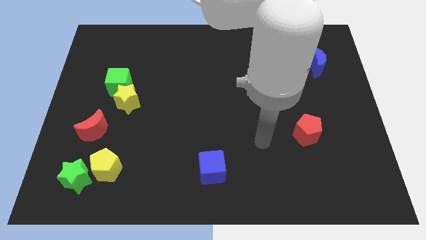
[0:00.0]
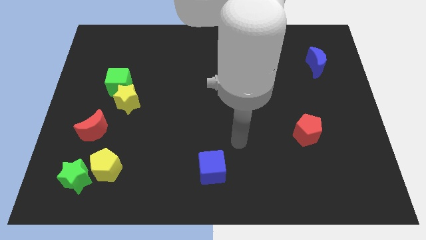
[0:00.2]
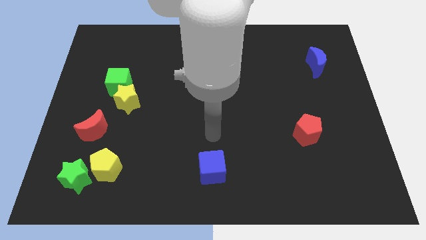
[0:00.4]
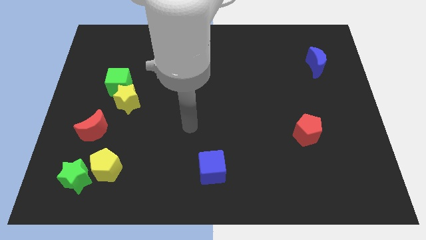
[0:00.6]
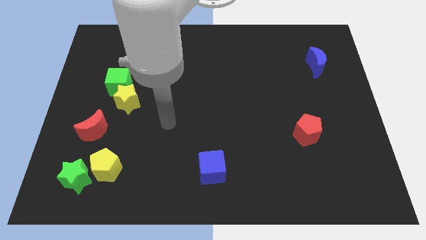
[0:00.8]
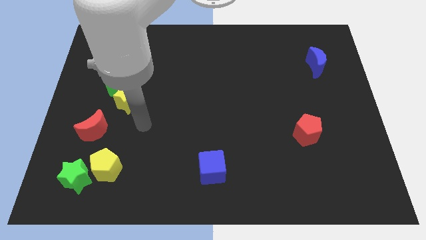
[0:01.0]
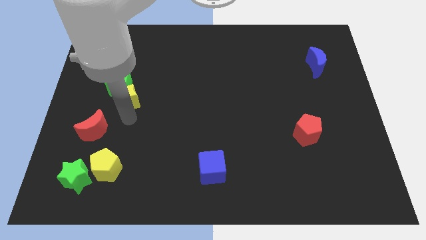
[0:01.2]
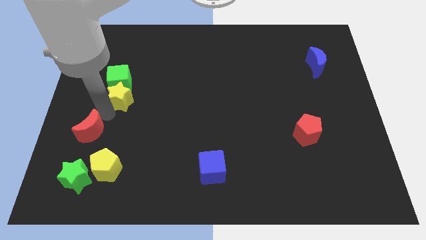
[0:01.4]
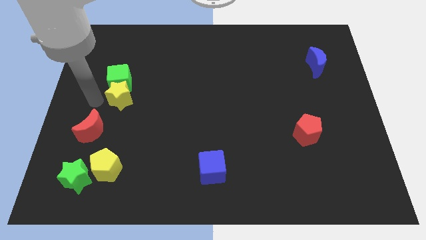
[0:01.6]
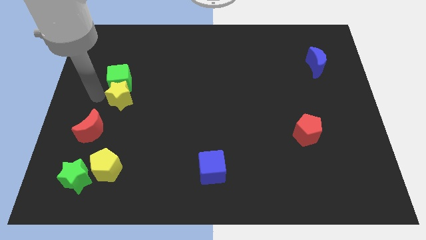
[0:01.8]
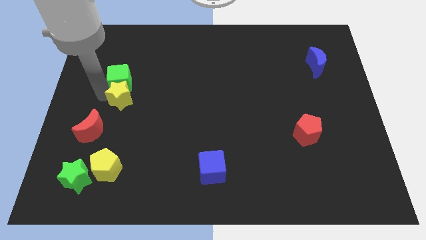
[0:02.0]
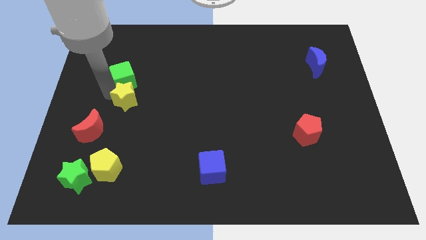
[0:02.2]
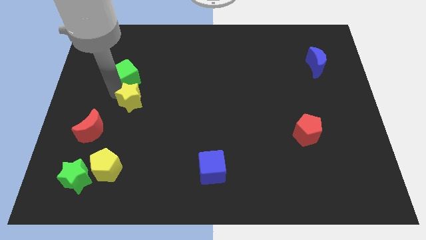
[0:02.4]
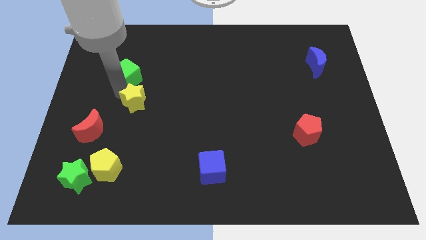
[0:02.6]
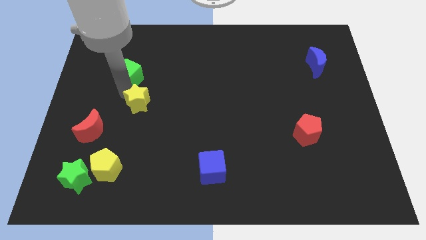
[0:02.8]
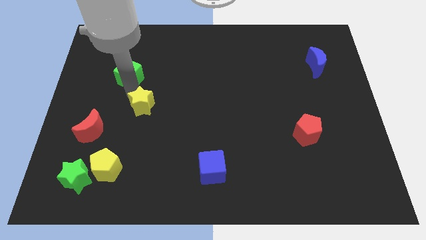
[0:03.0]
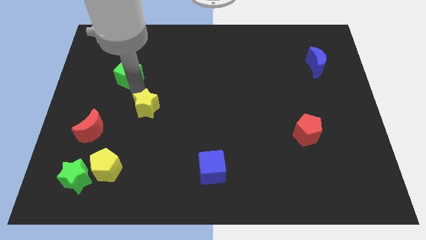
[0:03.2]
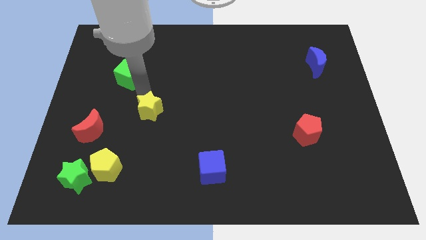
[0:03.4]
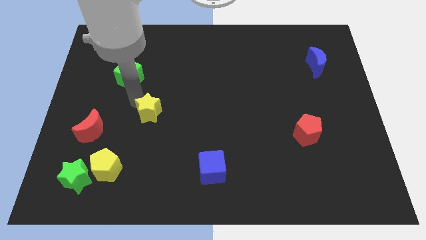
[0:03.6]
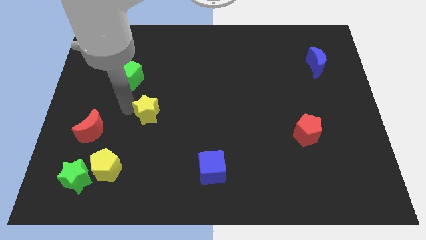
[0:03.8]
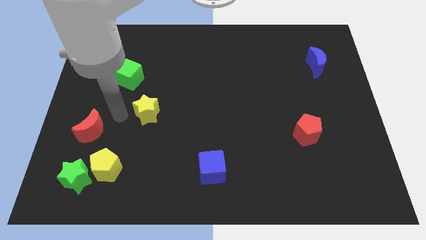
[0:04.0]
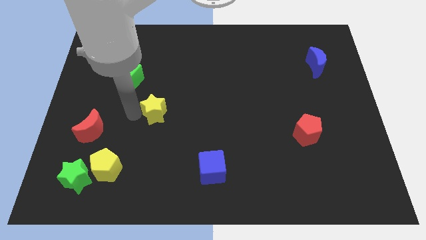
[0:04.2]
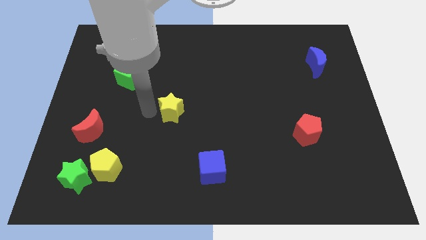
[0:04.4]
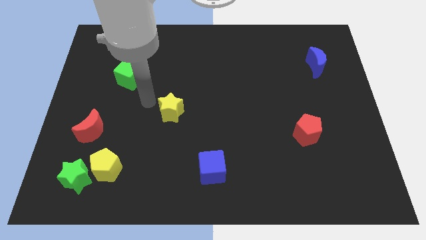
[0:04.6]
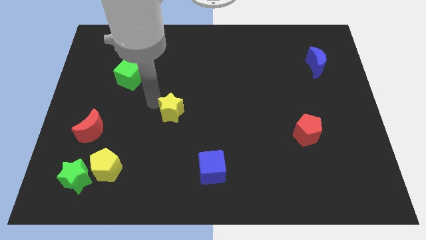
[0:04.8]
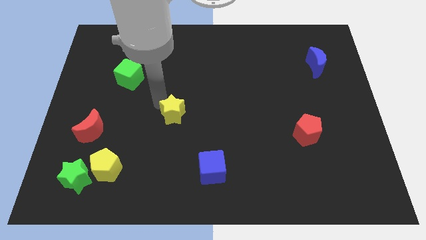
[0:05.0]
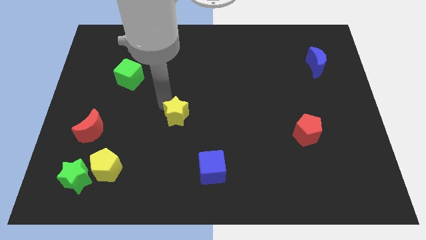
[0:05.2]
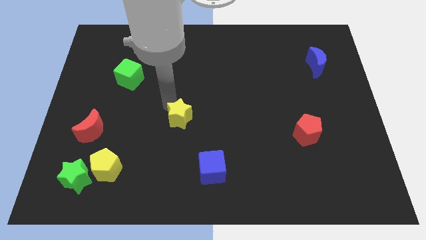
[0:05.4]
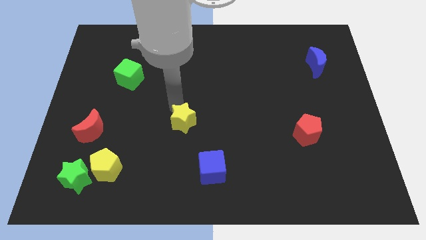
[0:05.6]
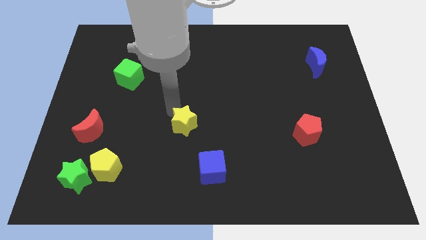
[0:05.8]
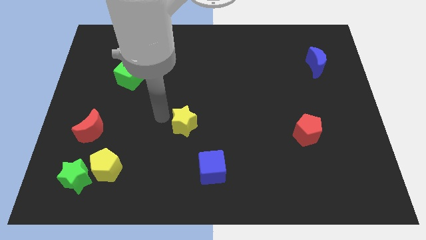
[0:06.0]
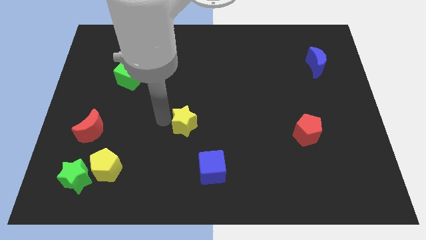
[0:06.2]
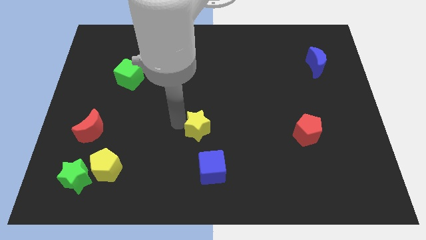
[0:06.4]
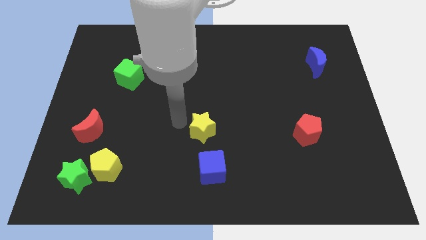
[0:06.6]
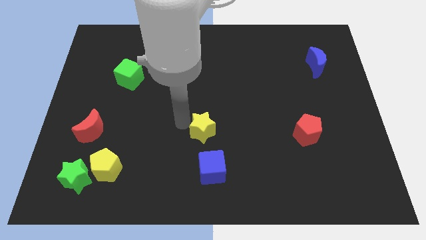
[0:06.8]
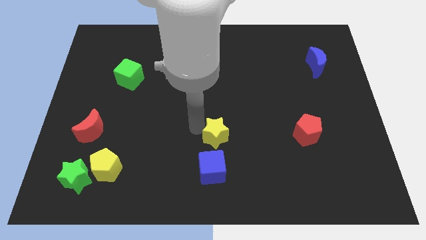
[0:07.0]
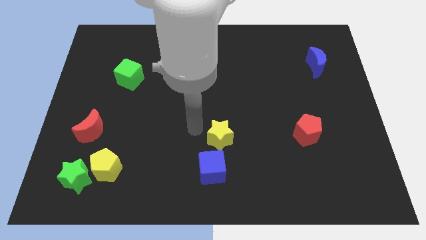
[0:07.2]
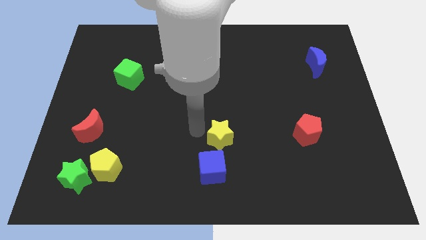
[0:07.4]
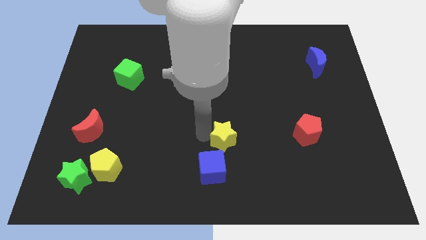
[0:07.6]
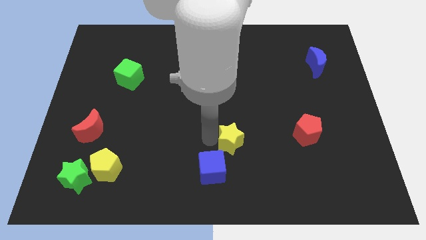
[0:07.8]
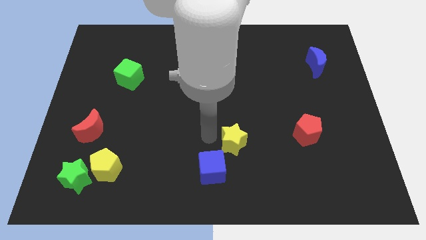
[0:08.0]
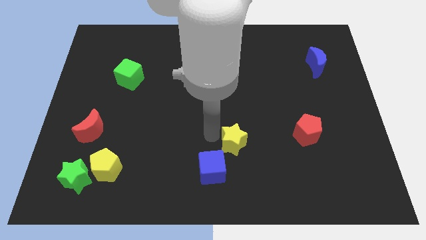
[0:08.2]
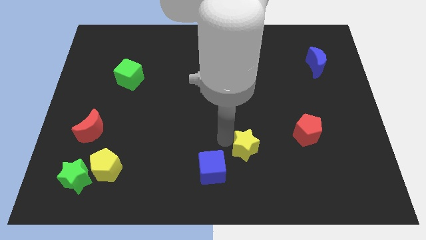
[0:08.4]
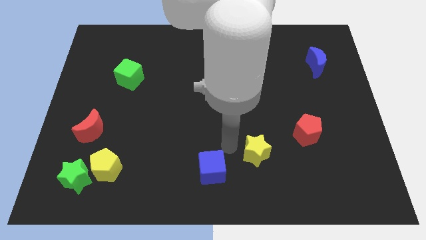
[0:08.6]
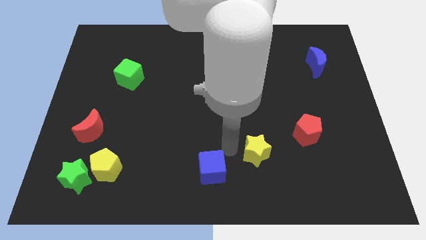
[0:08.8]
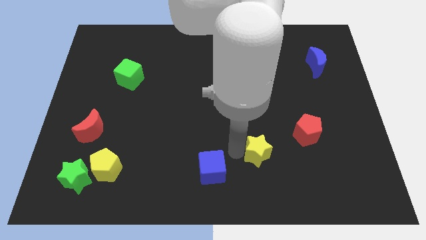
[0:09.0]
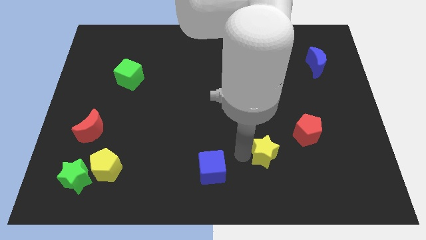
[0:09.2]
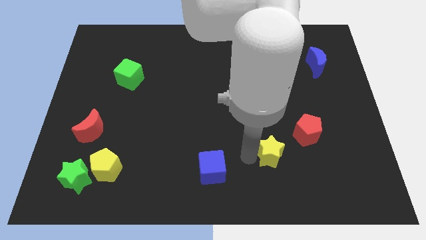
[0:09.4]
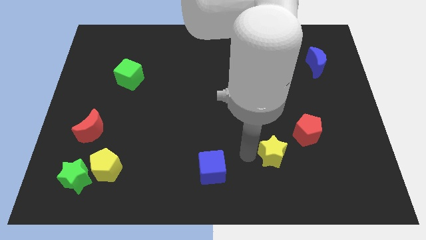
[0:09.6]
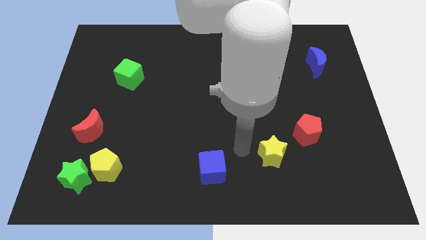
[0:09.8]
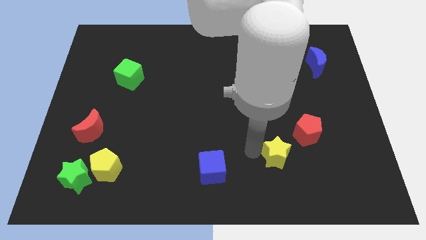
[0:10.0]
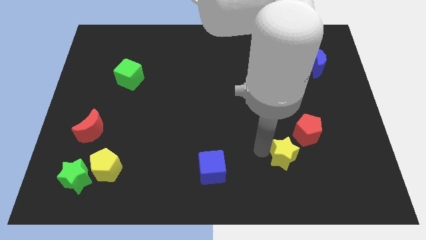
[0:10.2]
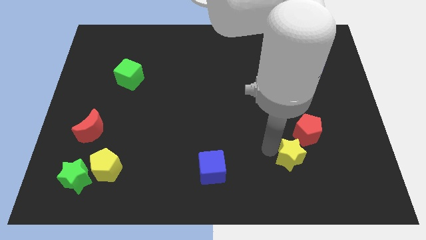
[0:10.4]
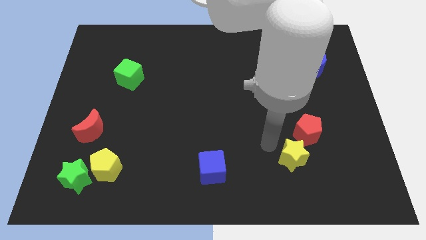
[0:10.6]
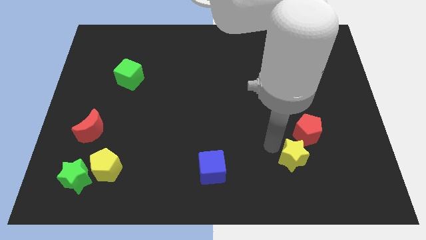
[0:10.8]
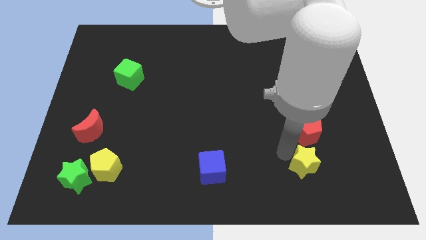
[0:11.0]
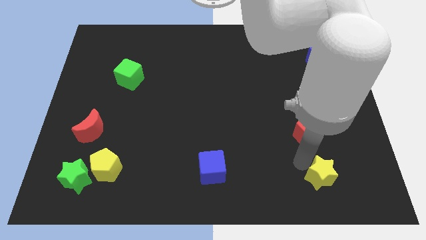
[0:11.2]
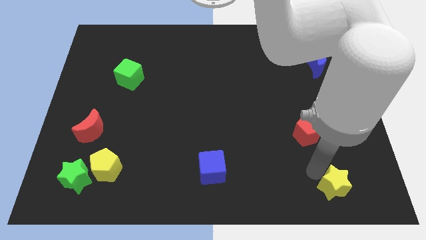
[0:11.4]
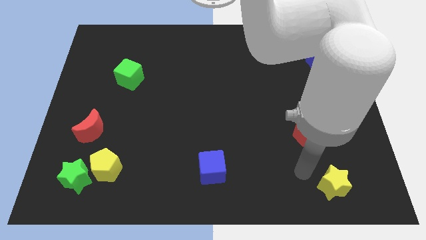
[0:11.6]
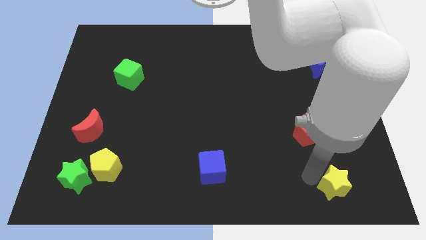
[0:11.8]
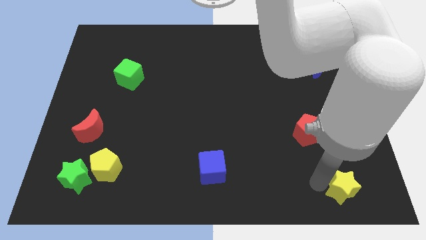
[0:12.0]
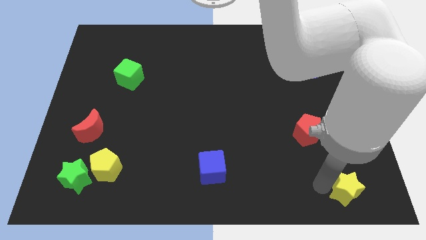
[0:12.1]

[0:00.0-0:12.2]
move the yellow star to the bottom right corner

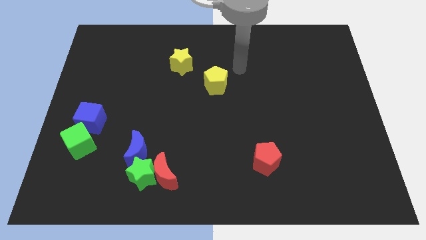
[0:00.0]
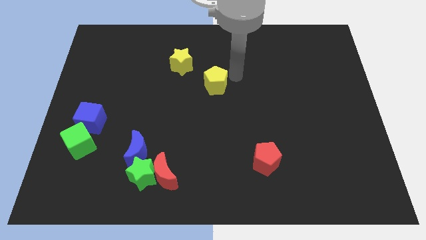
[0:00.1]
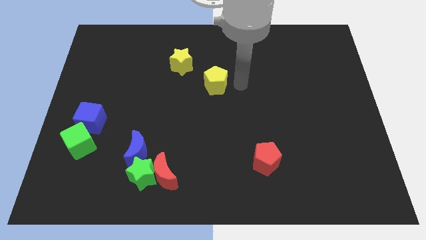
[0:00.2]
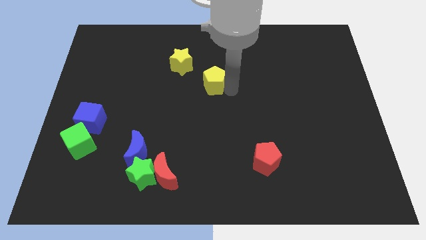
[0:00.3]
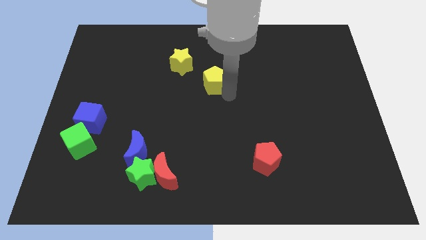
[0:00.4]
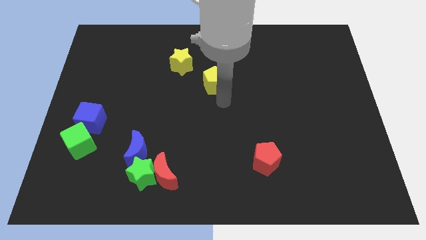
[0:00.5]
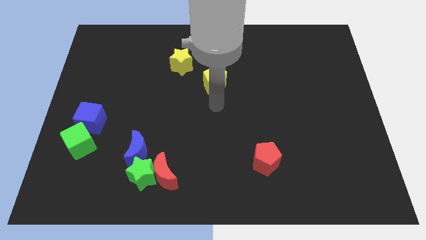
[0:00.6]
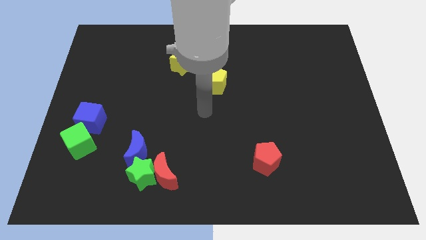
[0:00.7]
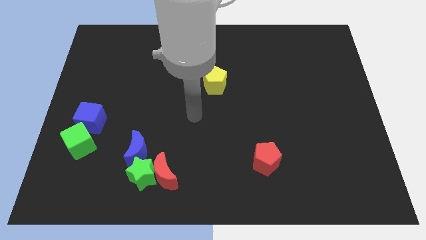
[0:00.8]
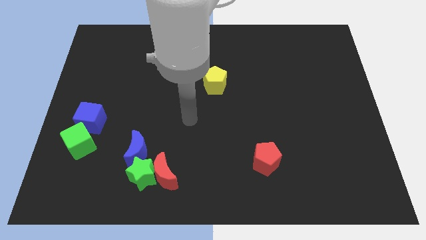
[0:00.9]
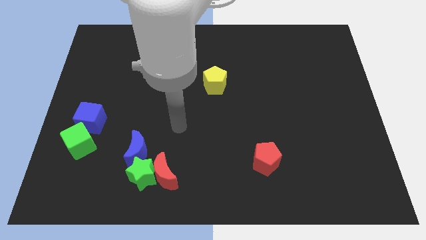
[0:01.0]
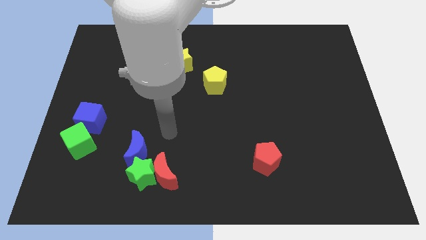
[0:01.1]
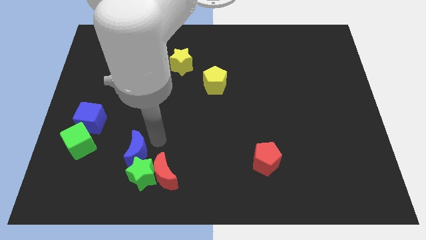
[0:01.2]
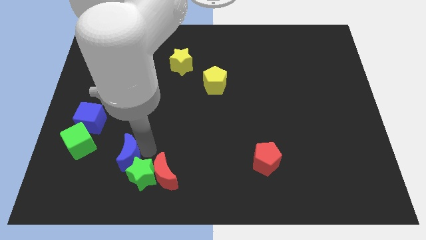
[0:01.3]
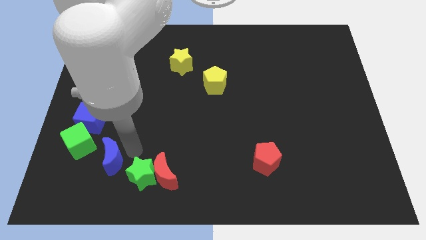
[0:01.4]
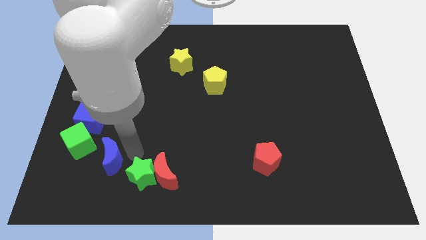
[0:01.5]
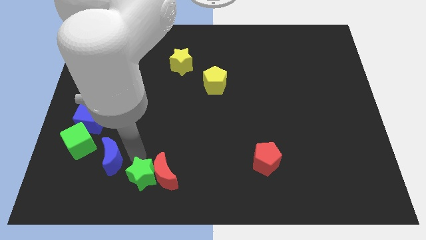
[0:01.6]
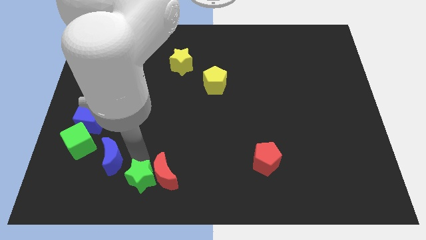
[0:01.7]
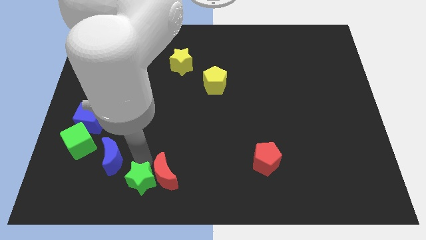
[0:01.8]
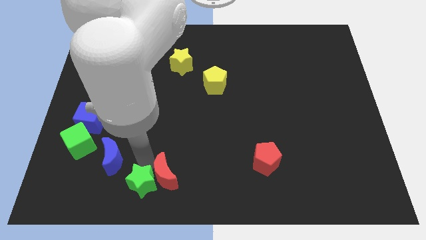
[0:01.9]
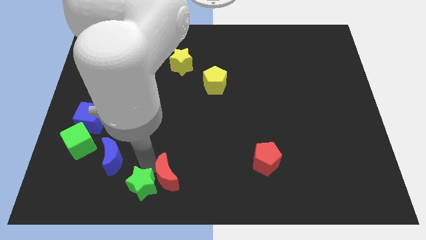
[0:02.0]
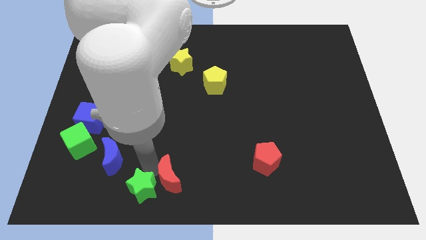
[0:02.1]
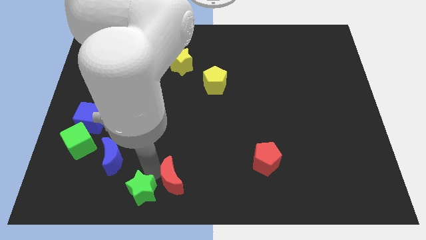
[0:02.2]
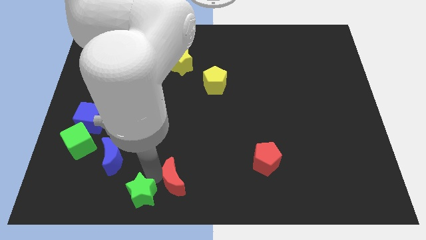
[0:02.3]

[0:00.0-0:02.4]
slide the green star to the bottom side
